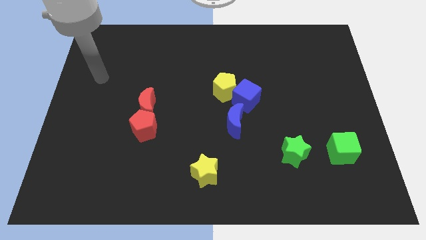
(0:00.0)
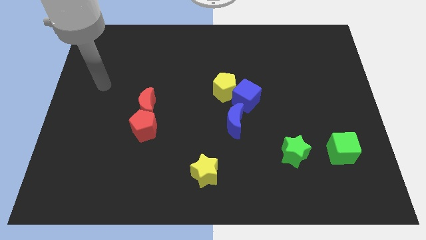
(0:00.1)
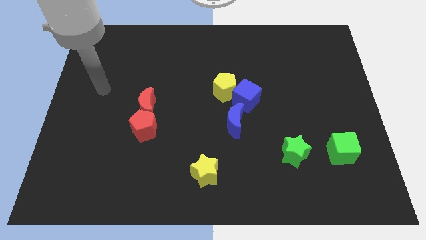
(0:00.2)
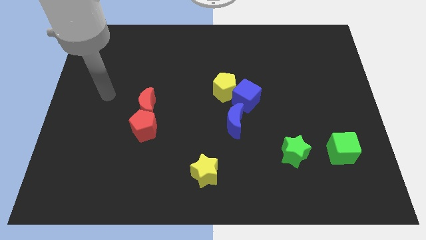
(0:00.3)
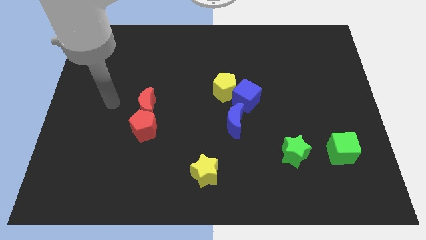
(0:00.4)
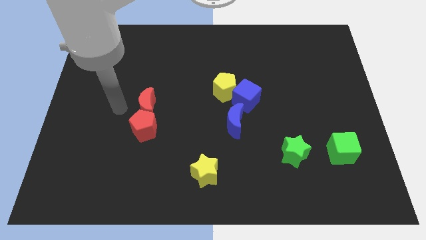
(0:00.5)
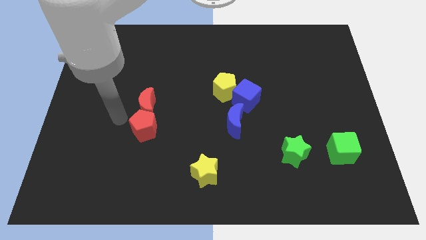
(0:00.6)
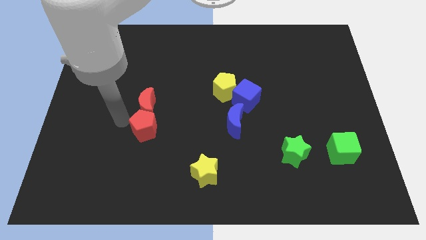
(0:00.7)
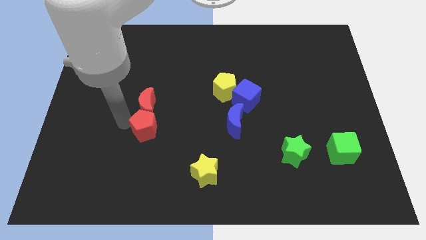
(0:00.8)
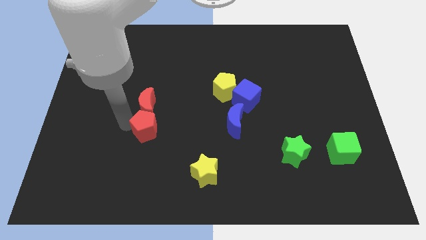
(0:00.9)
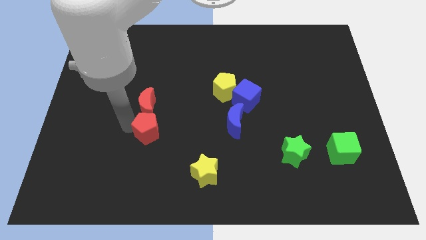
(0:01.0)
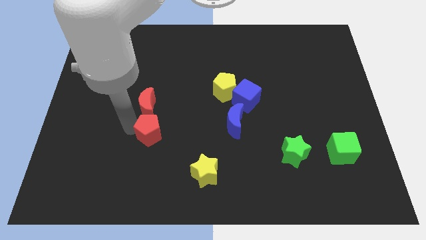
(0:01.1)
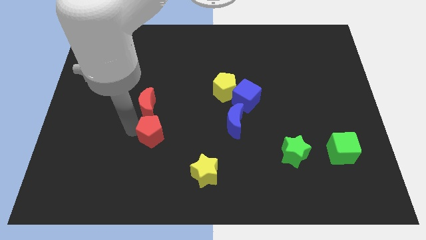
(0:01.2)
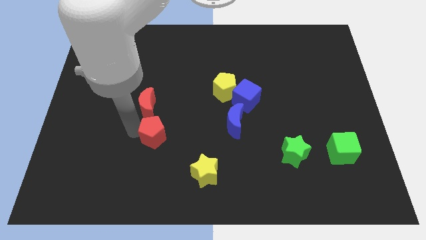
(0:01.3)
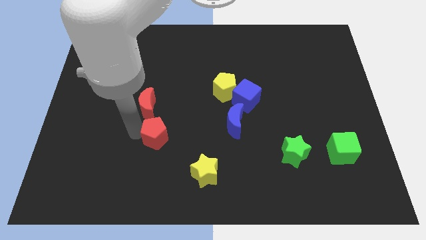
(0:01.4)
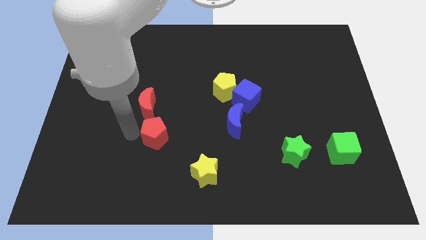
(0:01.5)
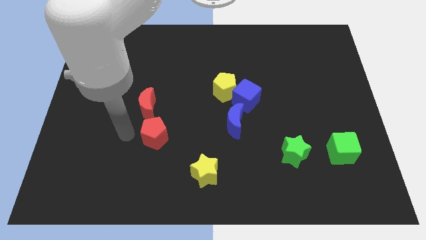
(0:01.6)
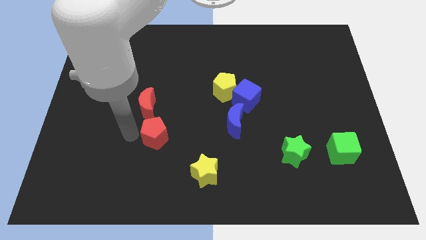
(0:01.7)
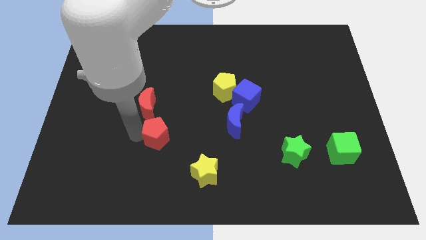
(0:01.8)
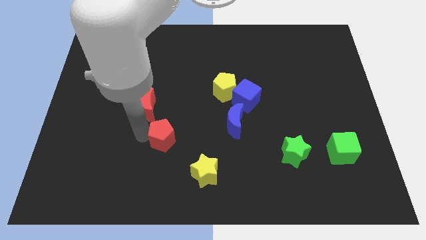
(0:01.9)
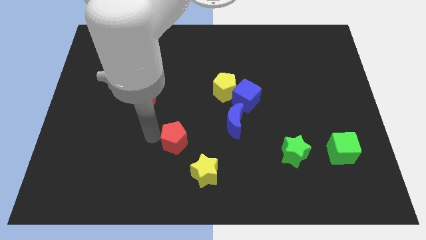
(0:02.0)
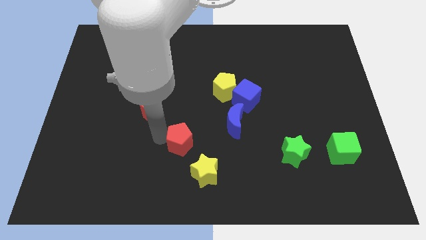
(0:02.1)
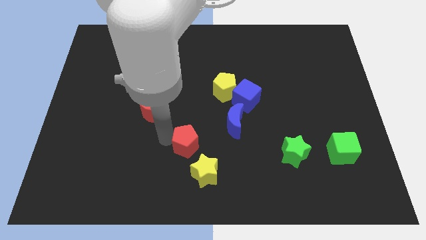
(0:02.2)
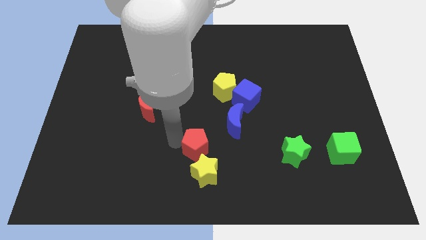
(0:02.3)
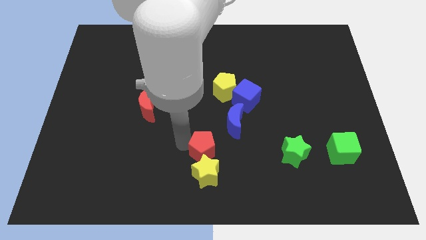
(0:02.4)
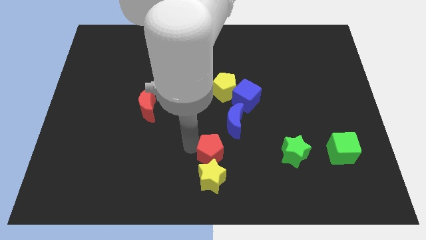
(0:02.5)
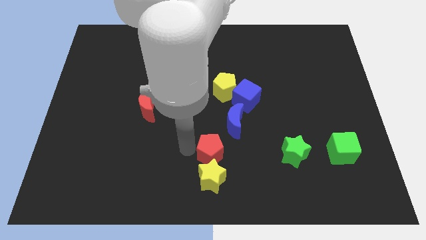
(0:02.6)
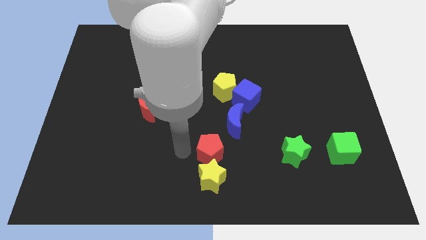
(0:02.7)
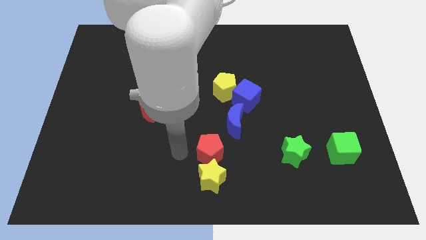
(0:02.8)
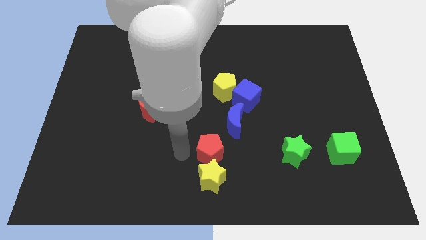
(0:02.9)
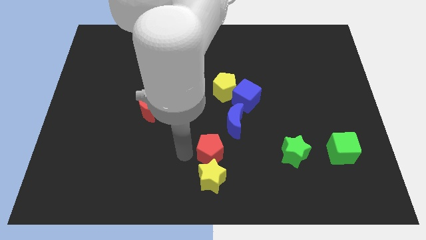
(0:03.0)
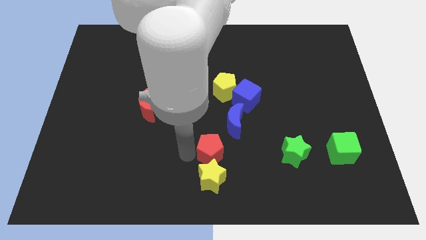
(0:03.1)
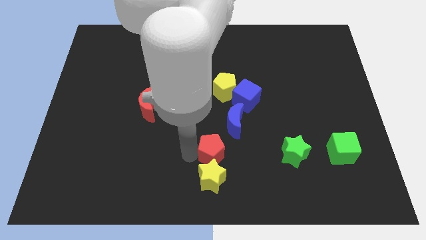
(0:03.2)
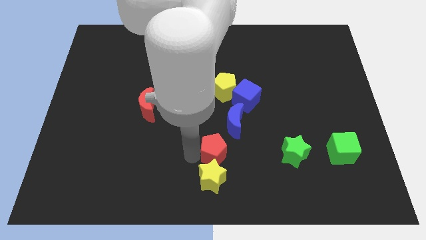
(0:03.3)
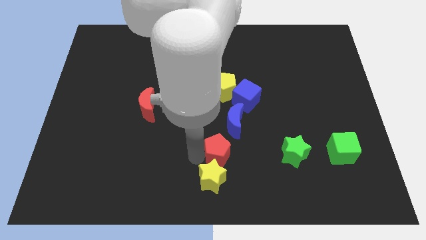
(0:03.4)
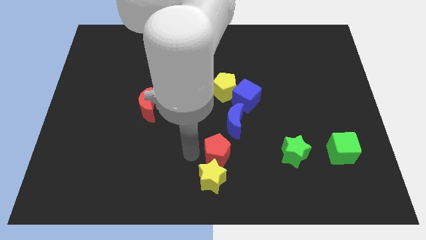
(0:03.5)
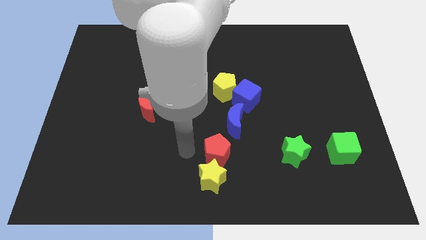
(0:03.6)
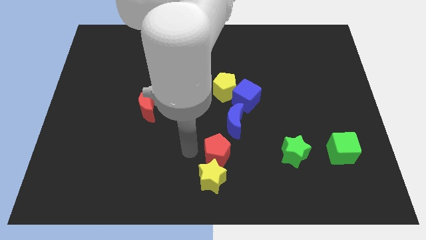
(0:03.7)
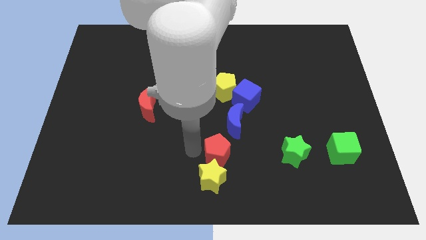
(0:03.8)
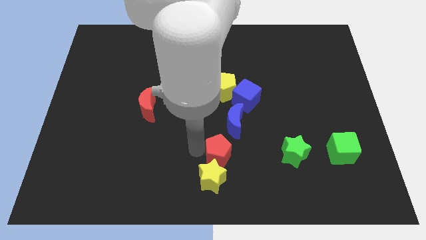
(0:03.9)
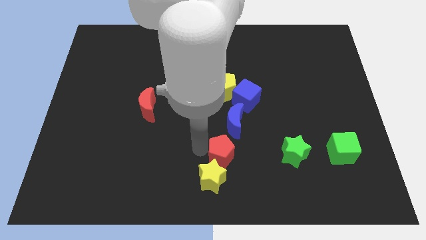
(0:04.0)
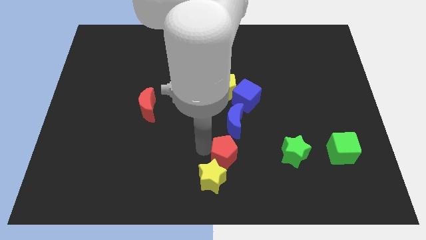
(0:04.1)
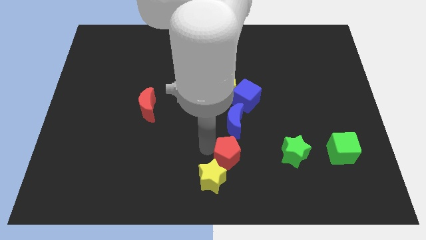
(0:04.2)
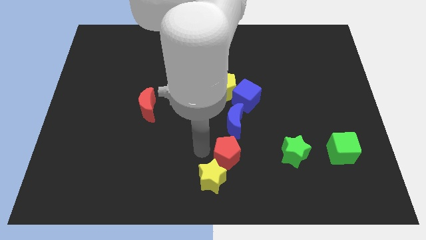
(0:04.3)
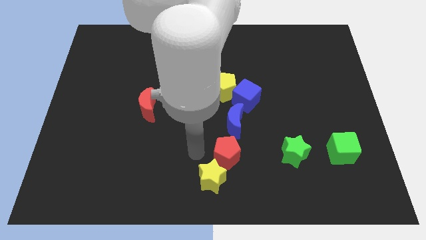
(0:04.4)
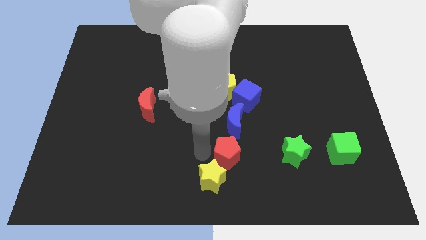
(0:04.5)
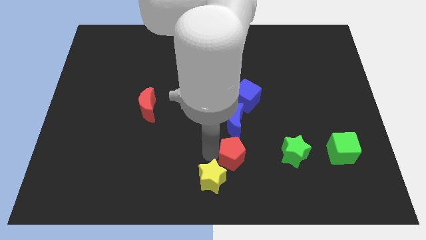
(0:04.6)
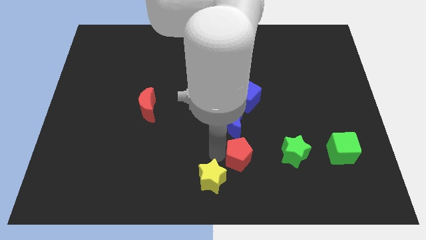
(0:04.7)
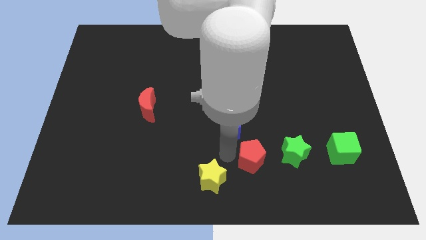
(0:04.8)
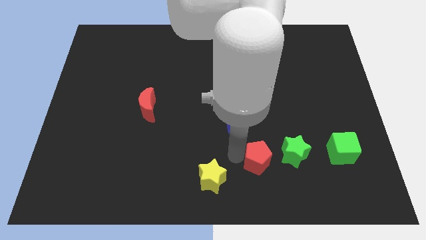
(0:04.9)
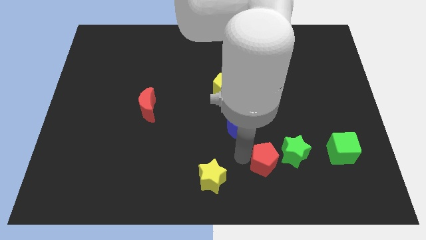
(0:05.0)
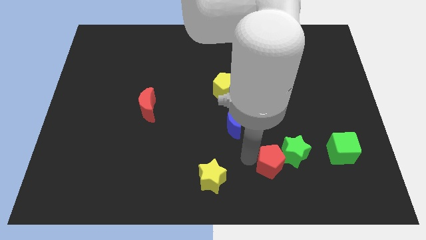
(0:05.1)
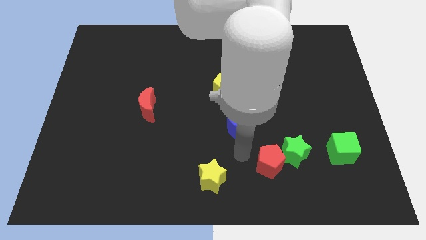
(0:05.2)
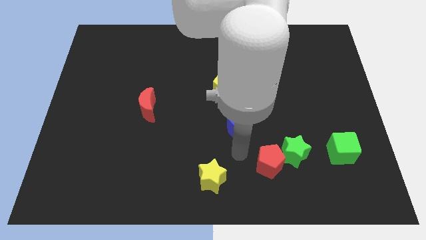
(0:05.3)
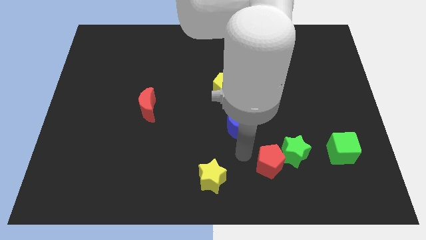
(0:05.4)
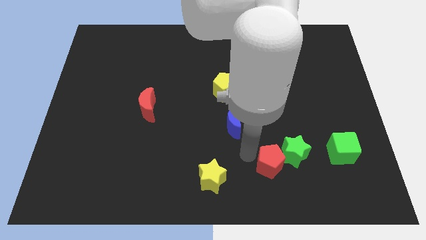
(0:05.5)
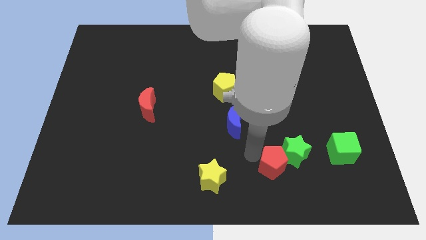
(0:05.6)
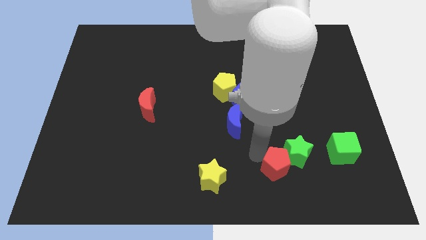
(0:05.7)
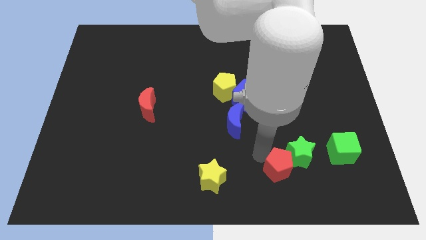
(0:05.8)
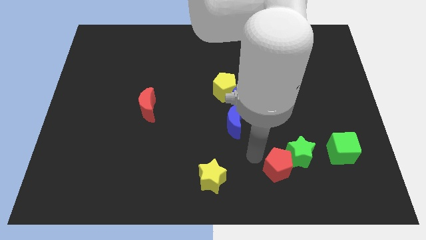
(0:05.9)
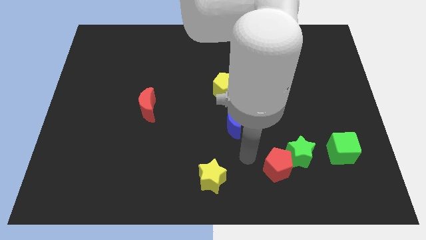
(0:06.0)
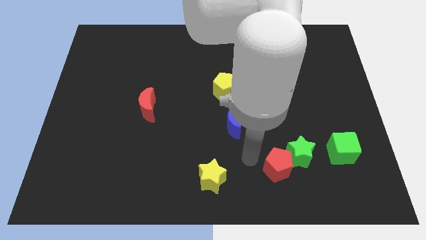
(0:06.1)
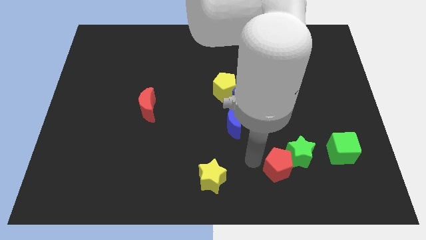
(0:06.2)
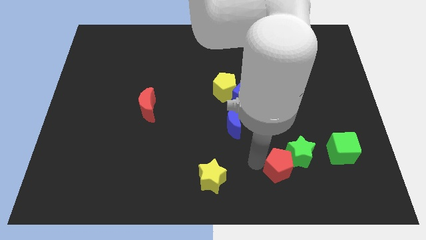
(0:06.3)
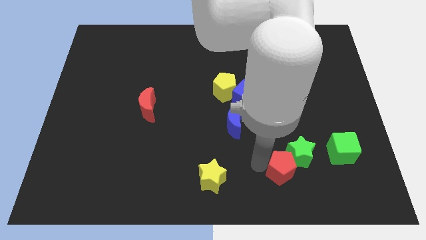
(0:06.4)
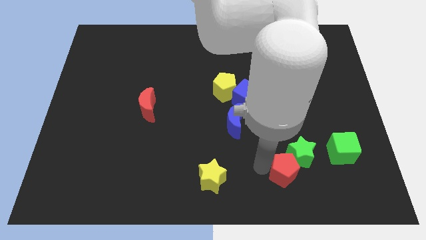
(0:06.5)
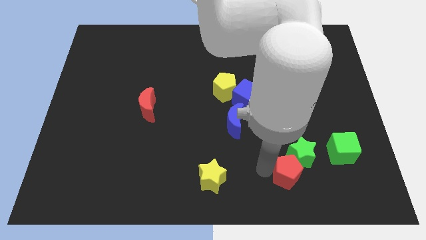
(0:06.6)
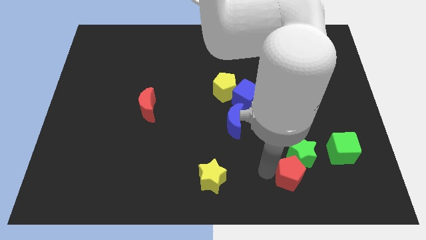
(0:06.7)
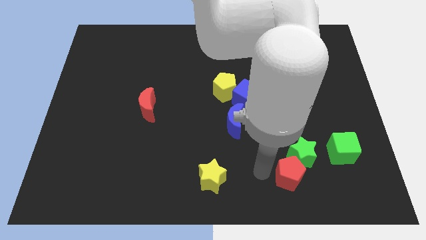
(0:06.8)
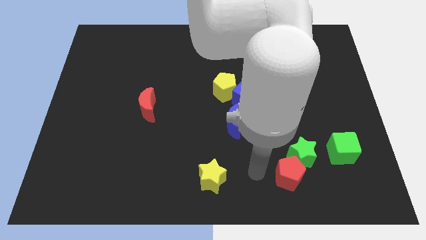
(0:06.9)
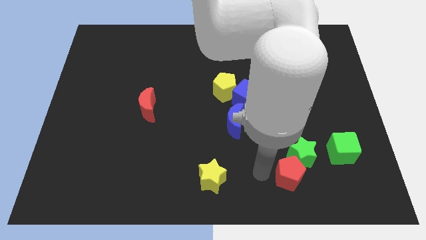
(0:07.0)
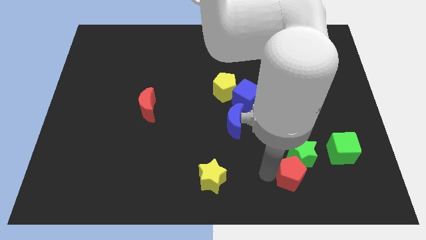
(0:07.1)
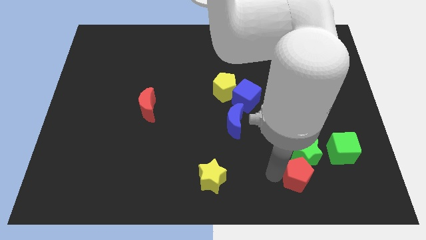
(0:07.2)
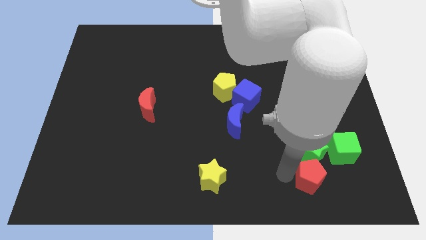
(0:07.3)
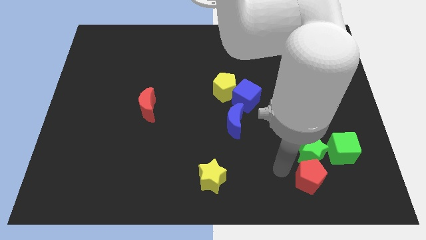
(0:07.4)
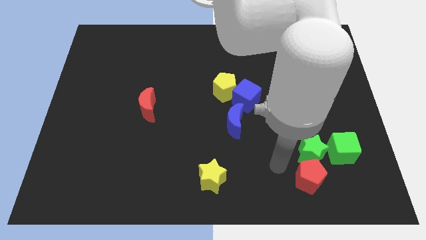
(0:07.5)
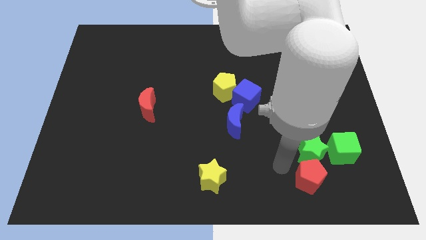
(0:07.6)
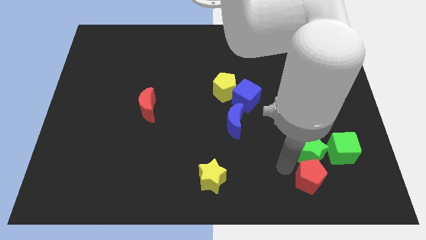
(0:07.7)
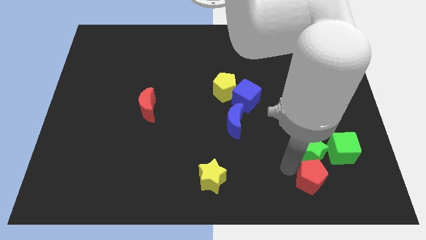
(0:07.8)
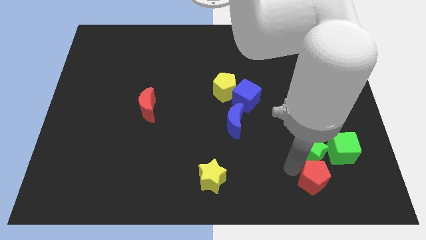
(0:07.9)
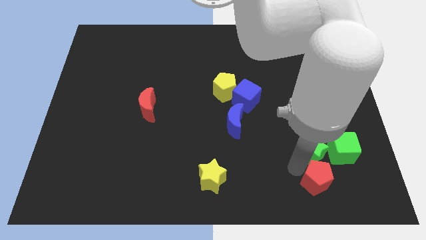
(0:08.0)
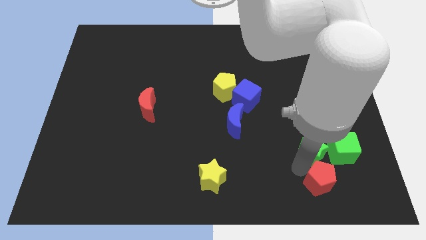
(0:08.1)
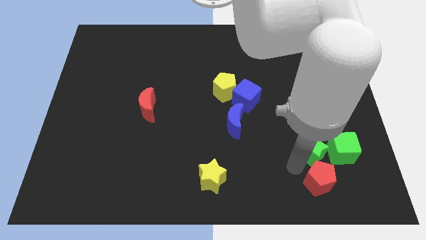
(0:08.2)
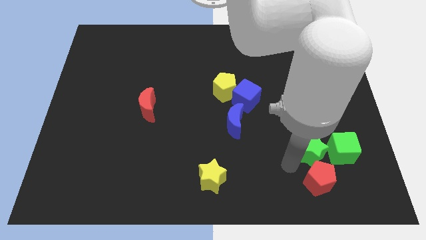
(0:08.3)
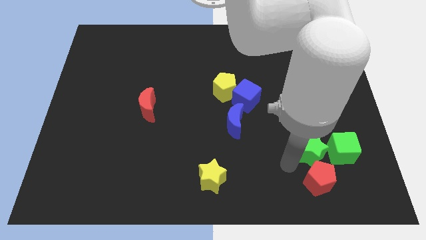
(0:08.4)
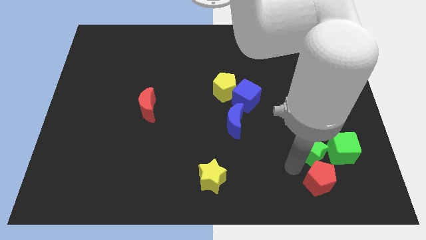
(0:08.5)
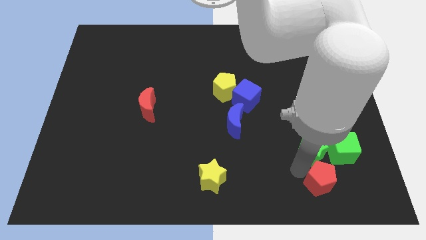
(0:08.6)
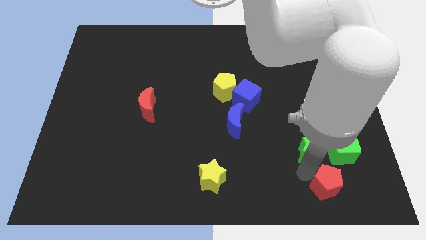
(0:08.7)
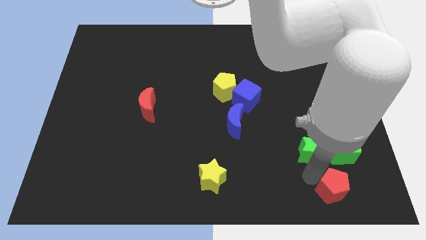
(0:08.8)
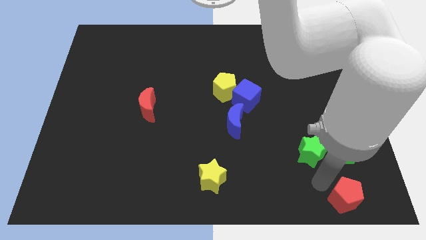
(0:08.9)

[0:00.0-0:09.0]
move the red pentagon to the bottom right corner
